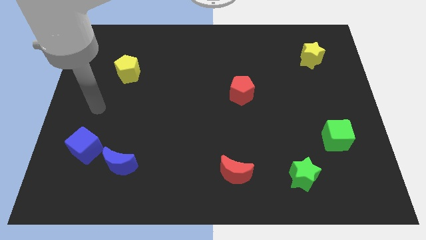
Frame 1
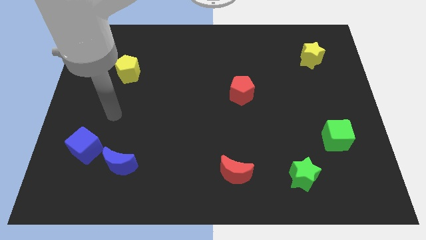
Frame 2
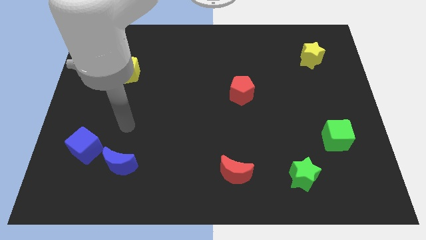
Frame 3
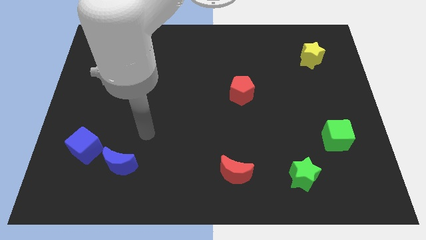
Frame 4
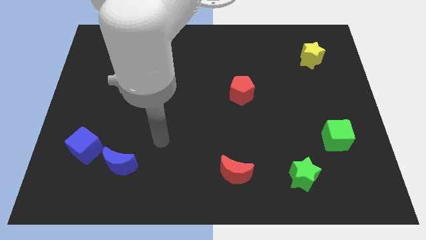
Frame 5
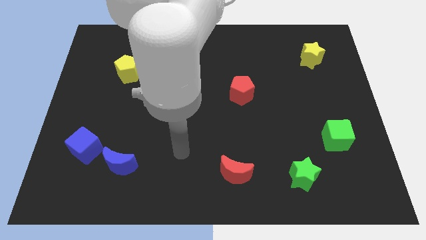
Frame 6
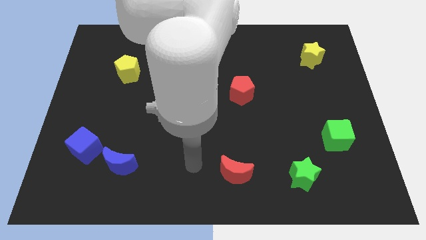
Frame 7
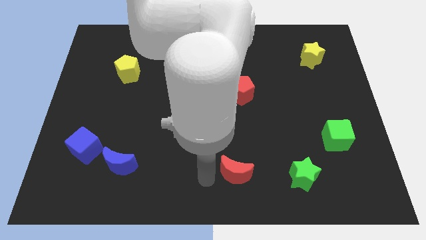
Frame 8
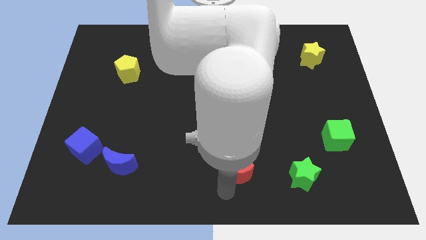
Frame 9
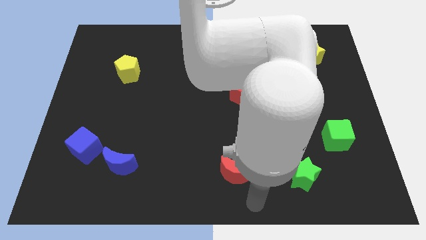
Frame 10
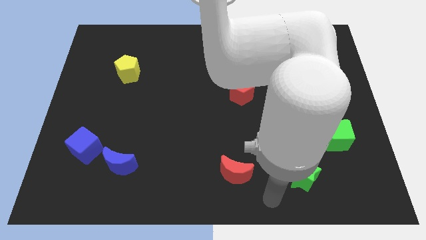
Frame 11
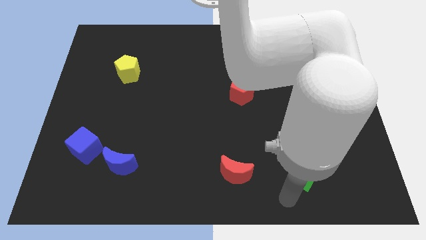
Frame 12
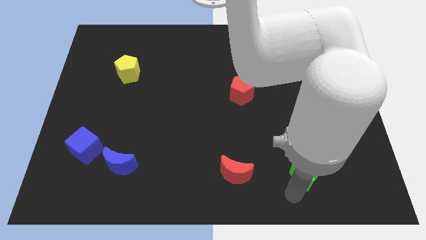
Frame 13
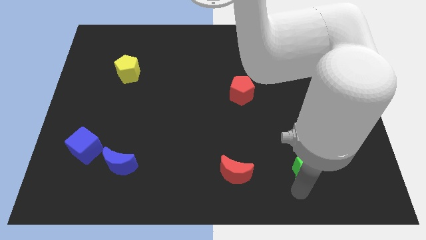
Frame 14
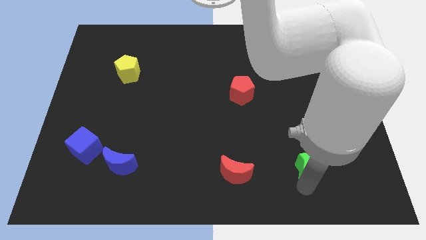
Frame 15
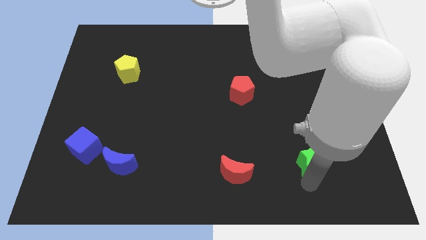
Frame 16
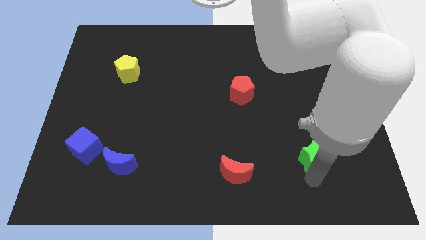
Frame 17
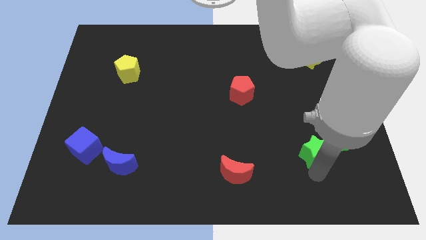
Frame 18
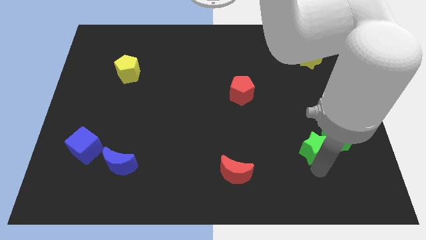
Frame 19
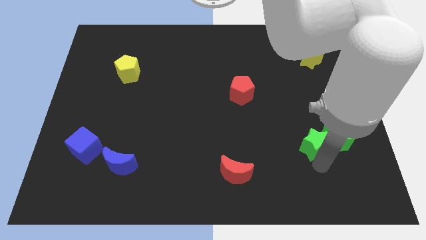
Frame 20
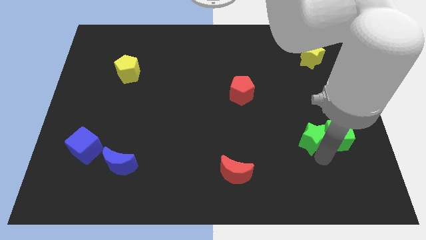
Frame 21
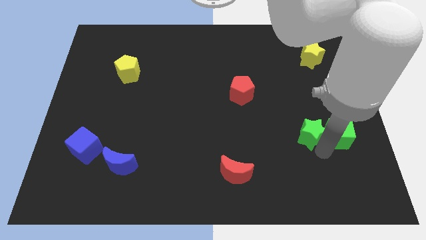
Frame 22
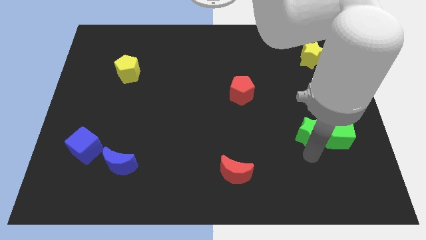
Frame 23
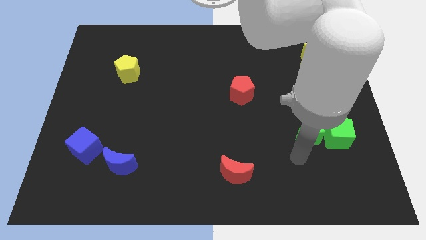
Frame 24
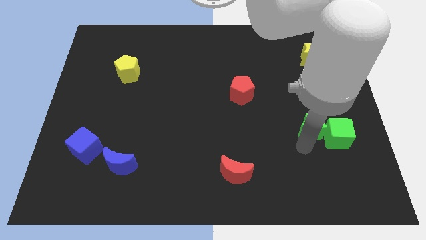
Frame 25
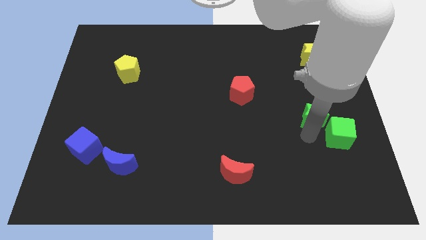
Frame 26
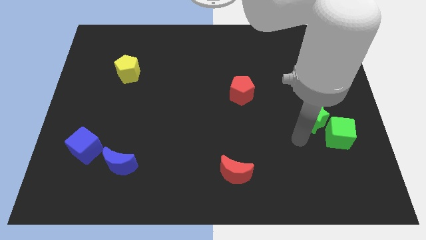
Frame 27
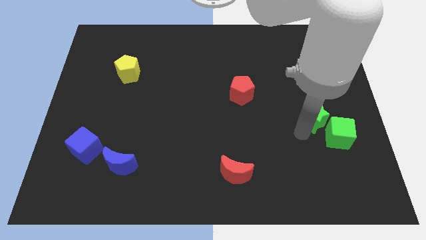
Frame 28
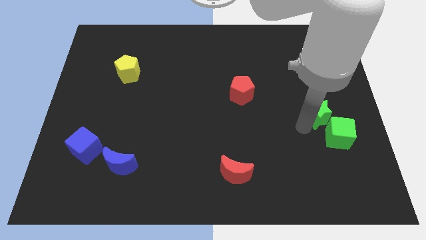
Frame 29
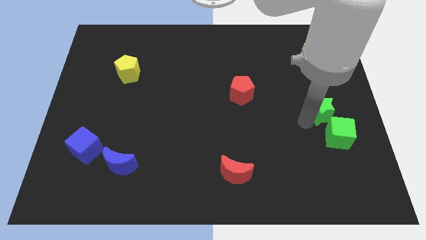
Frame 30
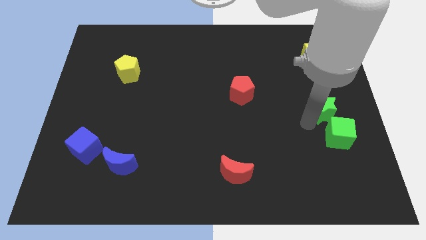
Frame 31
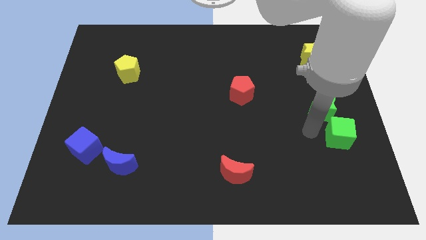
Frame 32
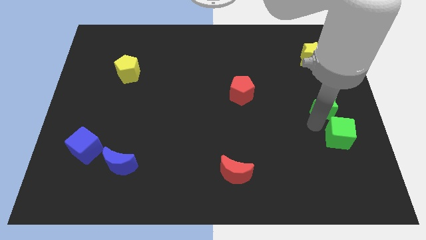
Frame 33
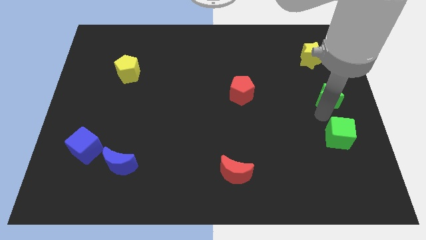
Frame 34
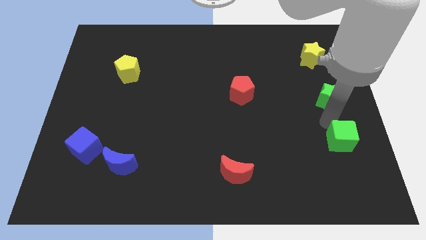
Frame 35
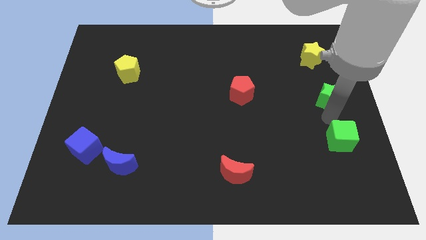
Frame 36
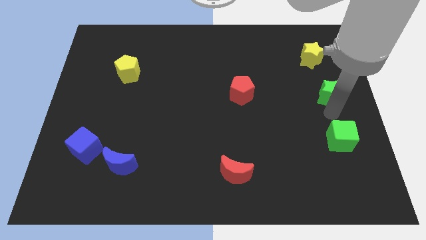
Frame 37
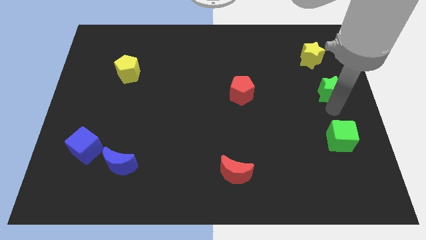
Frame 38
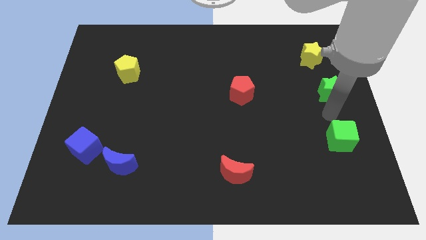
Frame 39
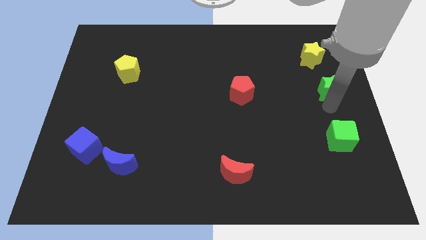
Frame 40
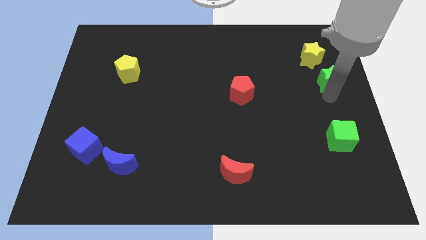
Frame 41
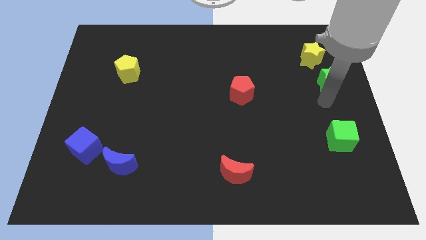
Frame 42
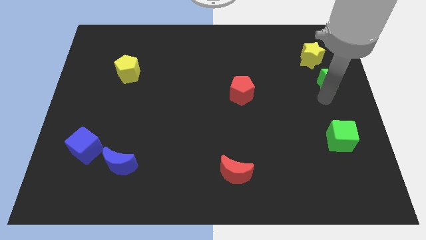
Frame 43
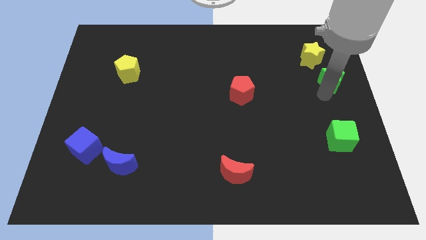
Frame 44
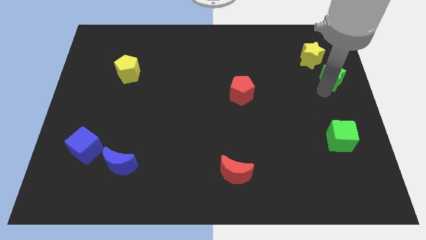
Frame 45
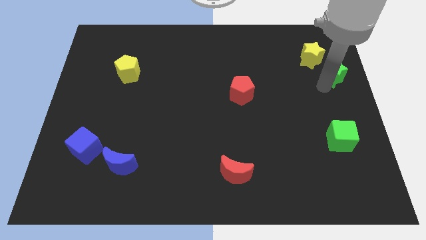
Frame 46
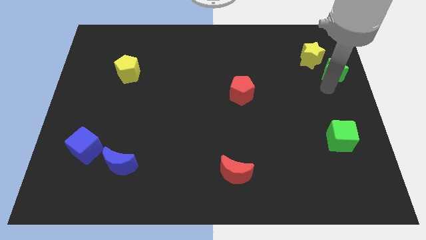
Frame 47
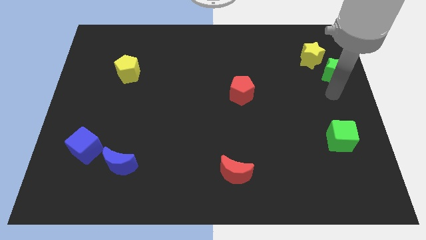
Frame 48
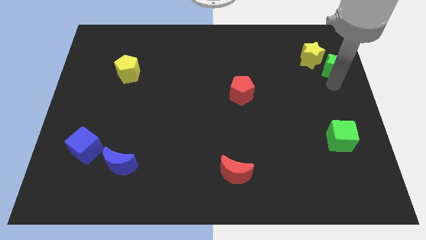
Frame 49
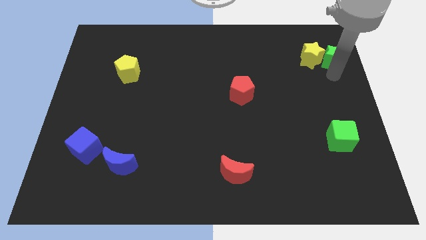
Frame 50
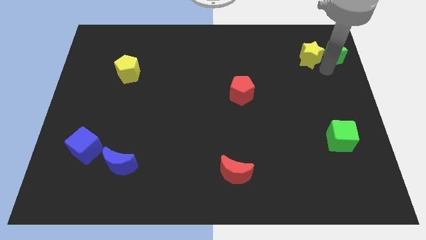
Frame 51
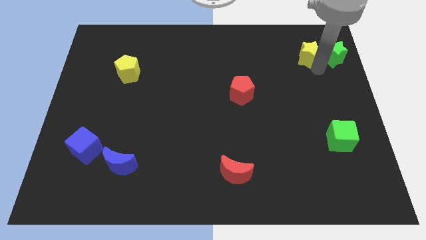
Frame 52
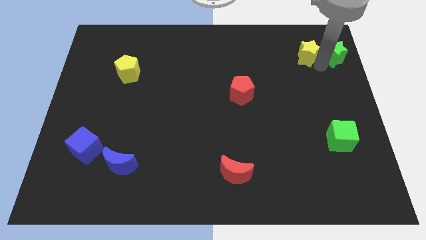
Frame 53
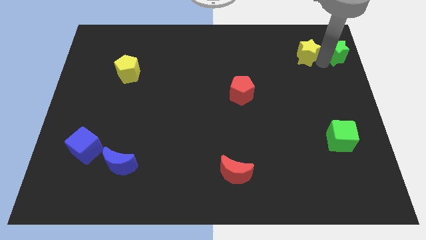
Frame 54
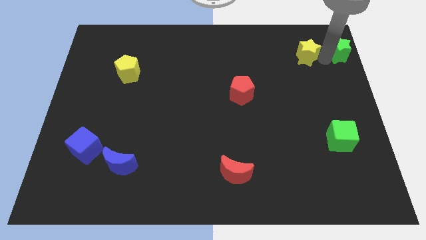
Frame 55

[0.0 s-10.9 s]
put the green star to the upper right corner

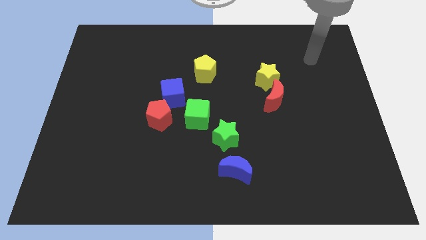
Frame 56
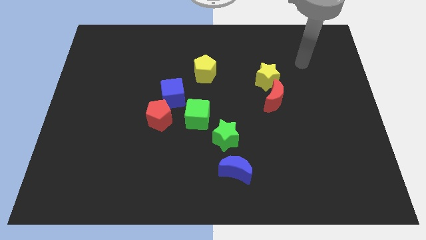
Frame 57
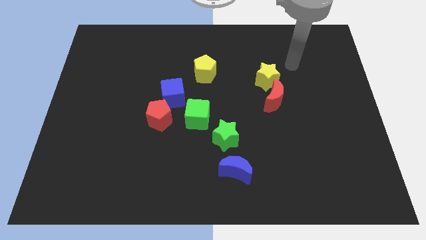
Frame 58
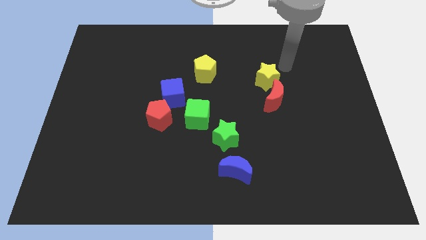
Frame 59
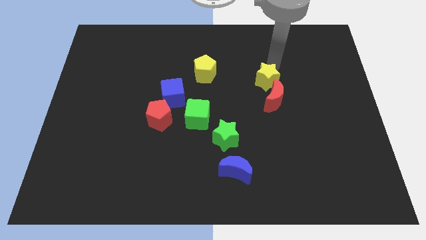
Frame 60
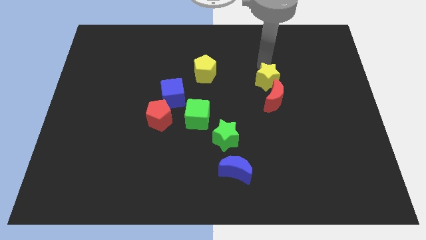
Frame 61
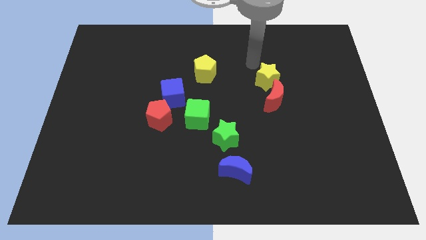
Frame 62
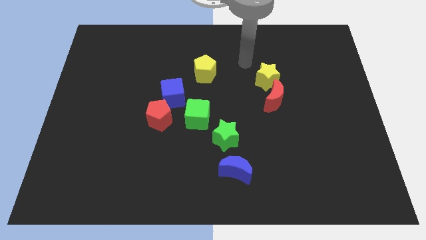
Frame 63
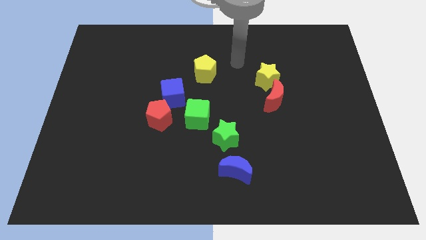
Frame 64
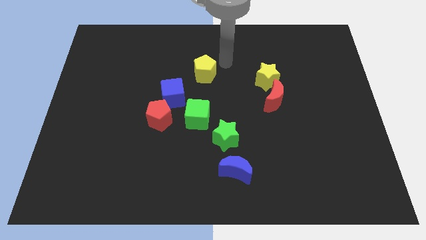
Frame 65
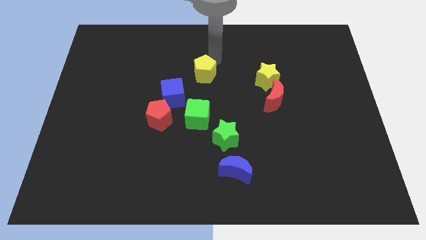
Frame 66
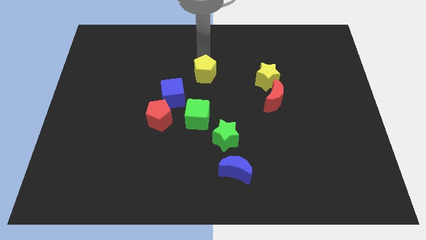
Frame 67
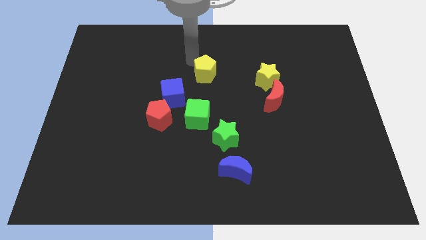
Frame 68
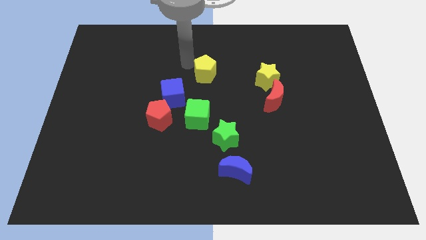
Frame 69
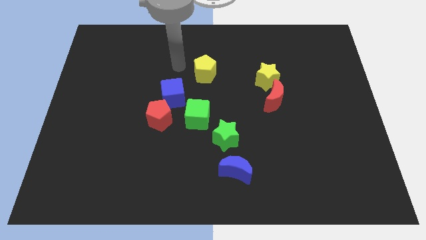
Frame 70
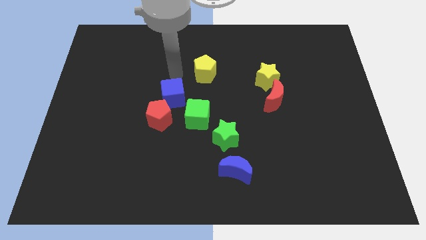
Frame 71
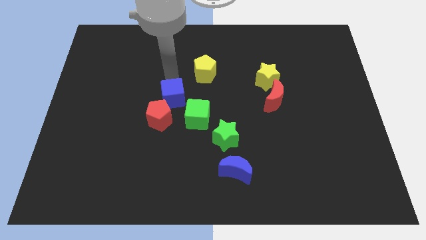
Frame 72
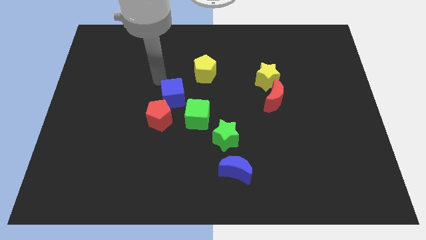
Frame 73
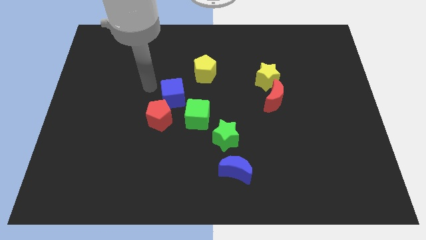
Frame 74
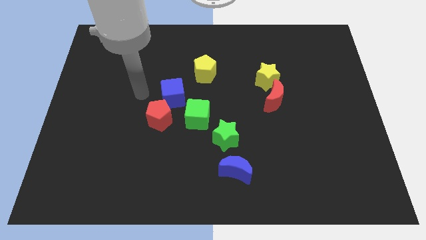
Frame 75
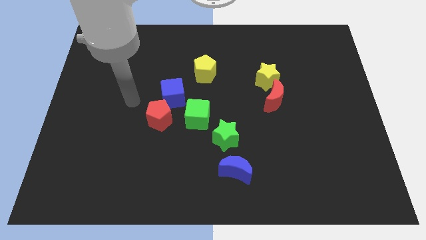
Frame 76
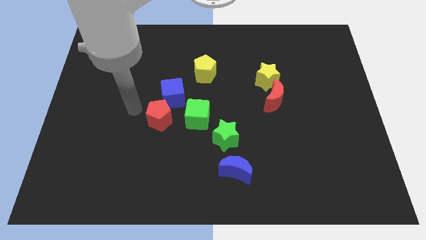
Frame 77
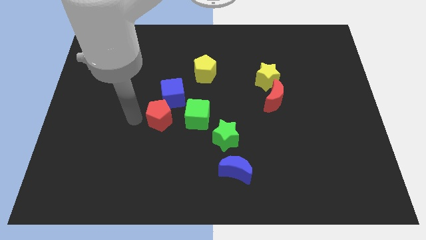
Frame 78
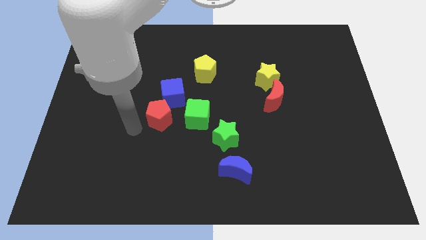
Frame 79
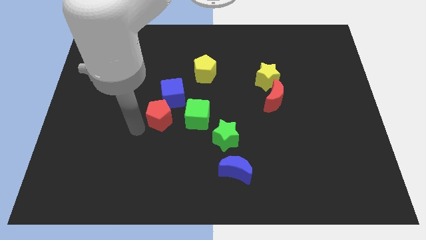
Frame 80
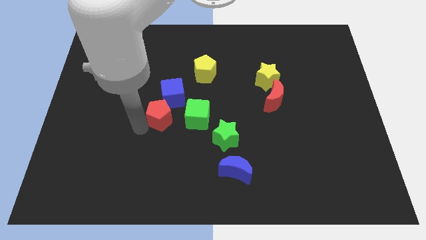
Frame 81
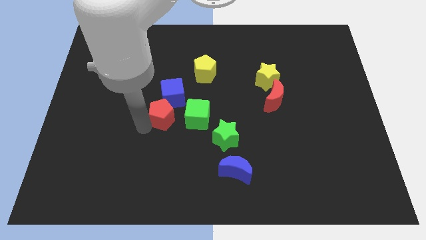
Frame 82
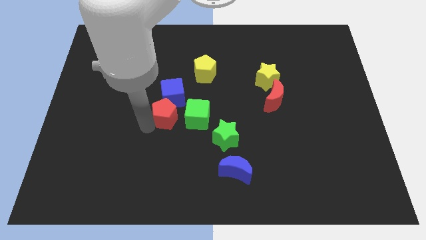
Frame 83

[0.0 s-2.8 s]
put the red pentagon to the center of the board
